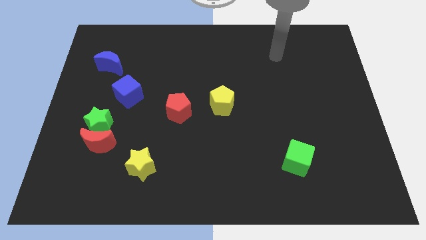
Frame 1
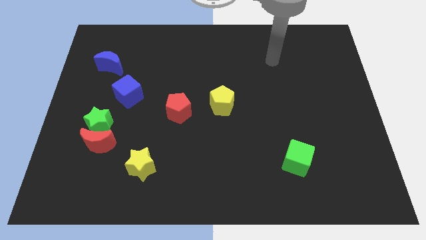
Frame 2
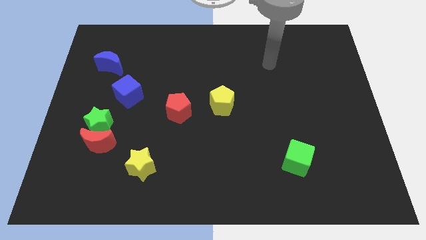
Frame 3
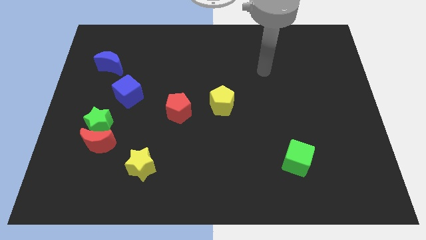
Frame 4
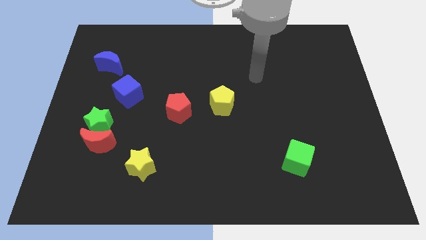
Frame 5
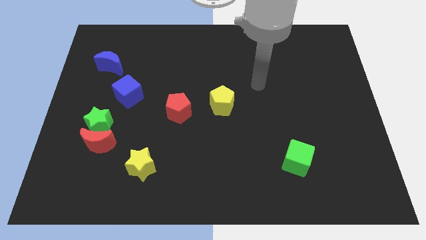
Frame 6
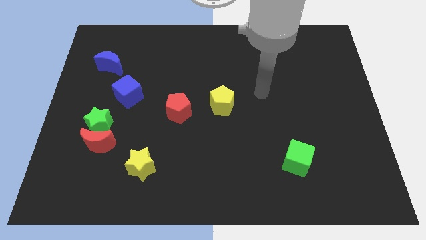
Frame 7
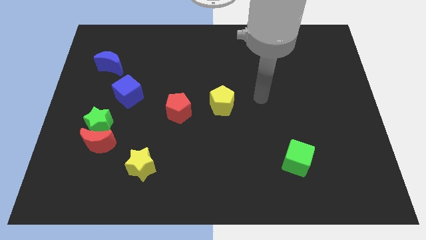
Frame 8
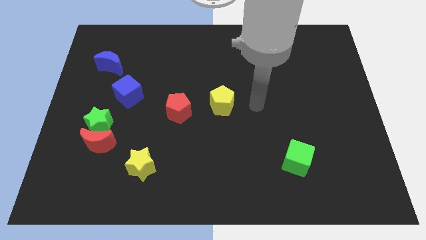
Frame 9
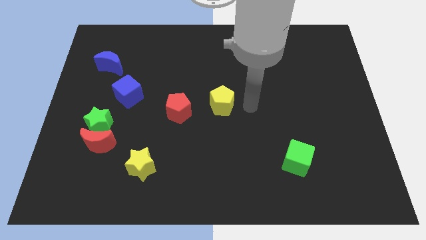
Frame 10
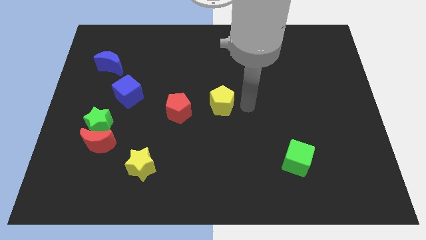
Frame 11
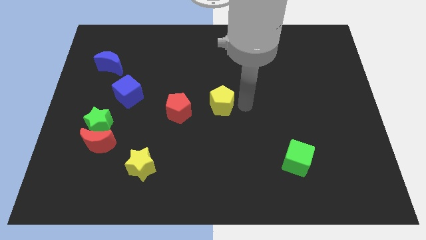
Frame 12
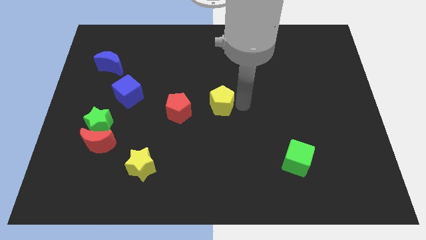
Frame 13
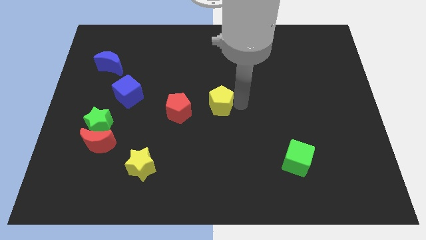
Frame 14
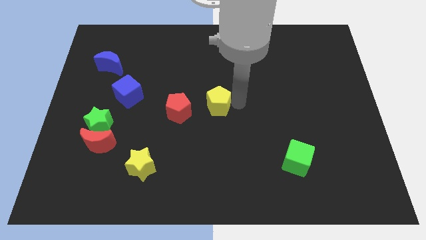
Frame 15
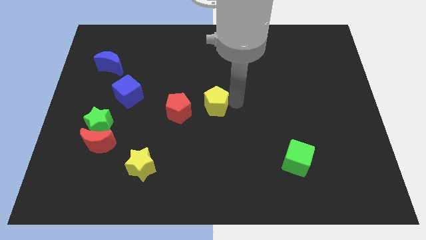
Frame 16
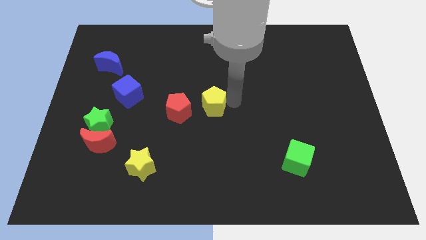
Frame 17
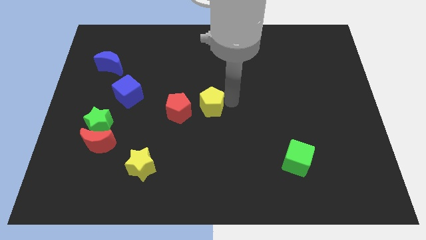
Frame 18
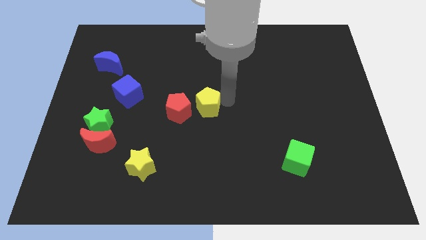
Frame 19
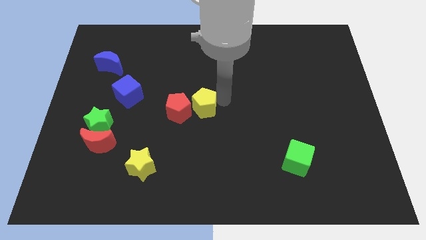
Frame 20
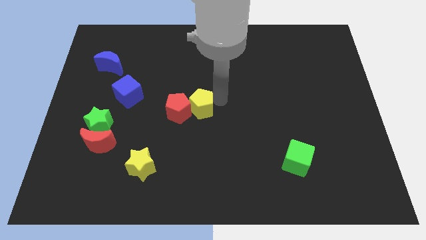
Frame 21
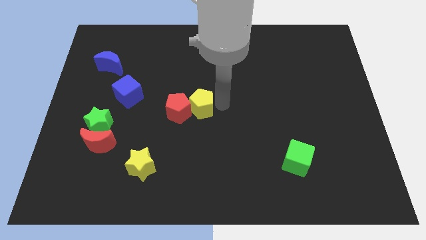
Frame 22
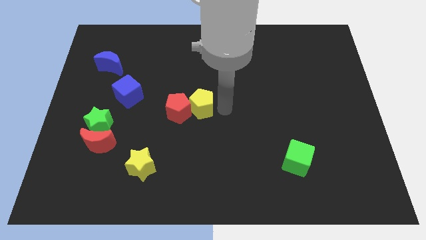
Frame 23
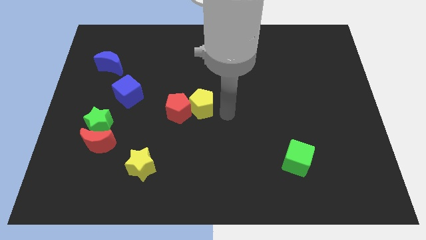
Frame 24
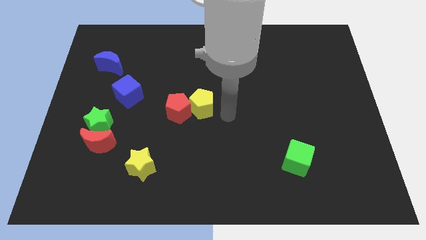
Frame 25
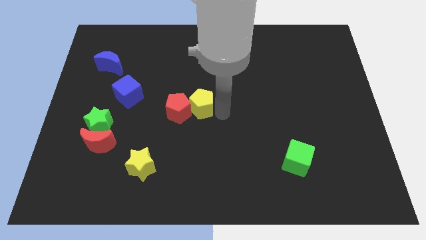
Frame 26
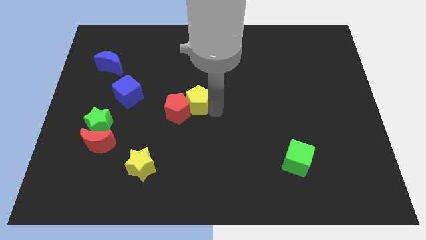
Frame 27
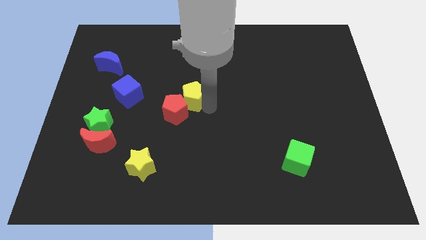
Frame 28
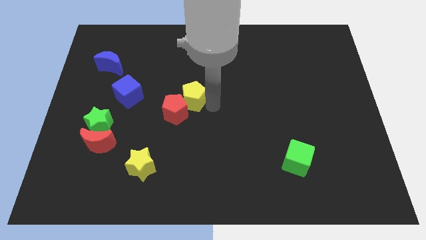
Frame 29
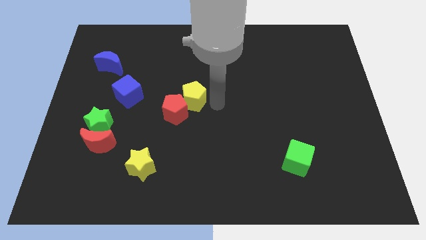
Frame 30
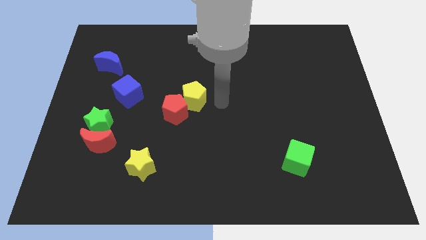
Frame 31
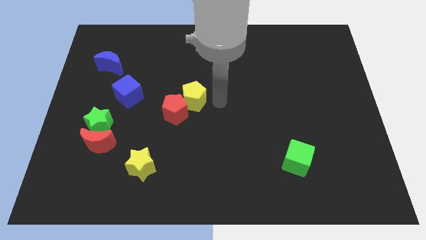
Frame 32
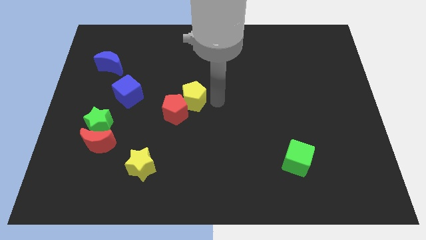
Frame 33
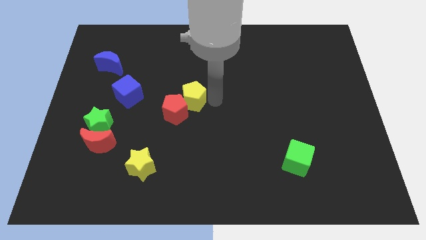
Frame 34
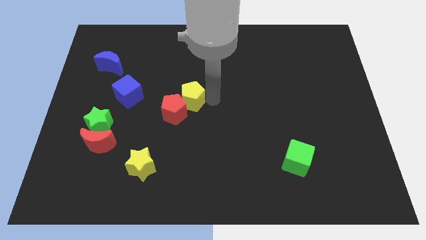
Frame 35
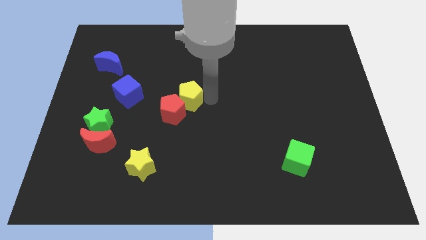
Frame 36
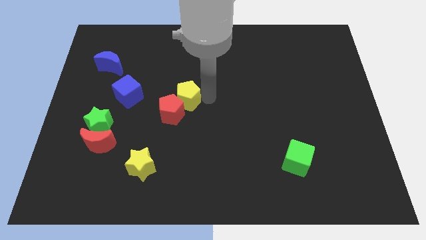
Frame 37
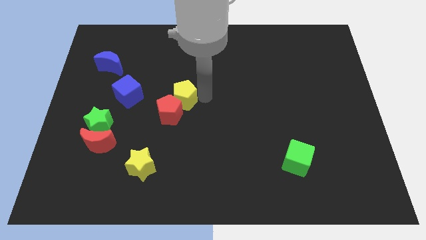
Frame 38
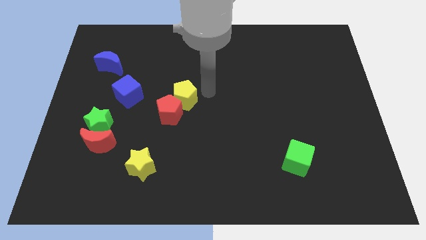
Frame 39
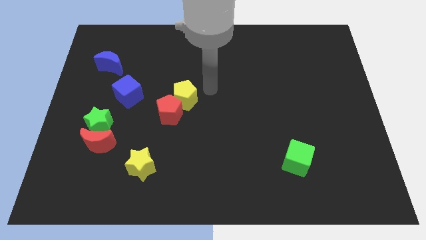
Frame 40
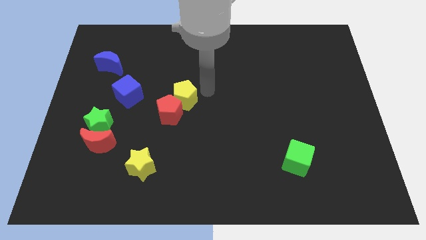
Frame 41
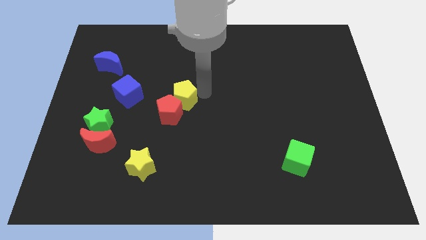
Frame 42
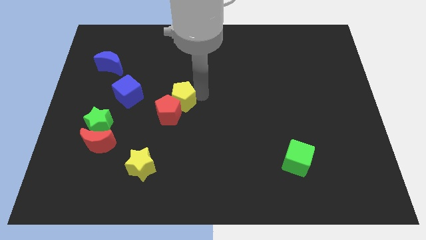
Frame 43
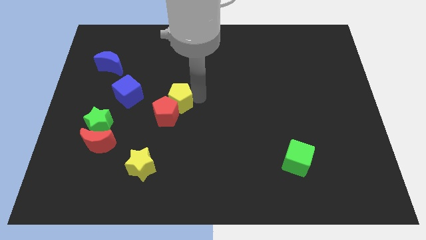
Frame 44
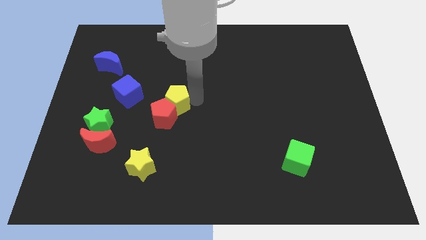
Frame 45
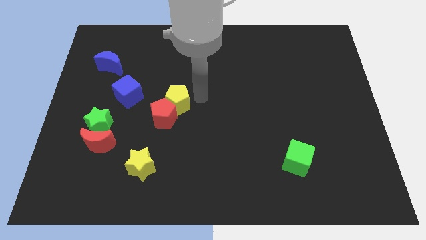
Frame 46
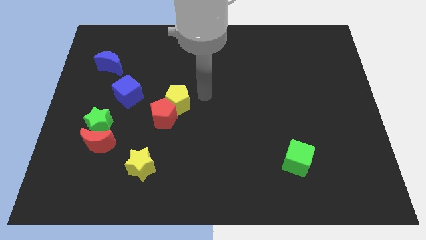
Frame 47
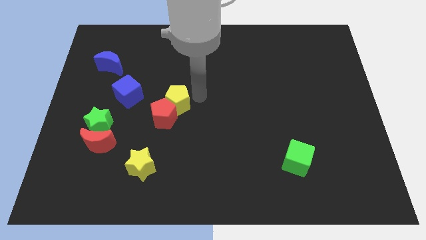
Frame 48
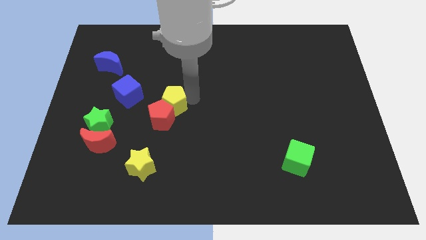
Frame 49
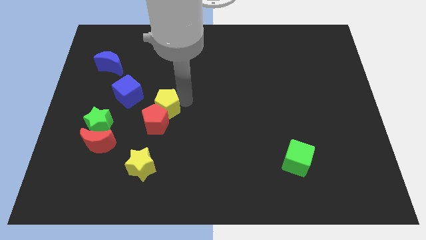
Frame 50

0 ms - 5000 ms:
push the yellow pentagon to the bottom right of the blue cube

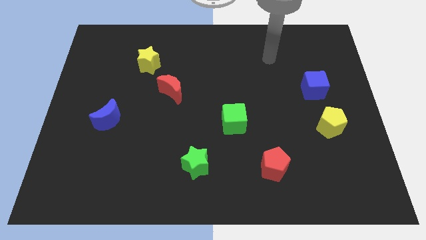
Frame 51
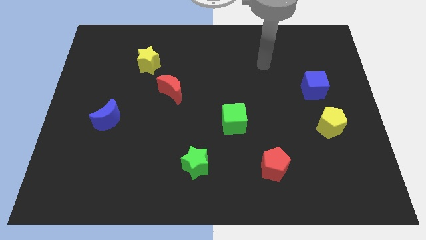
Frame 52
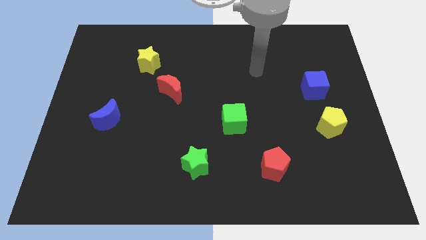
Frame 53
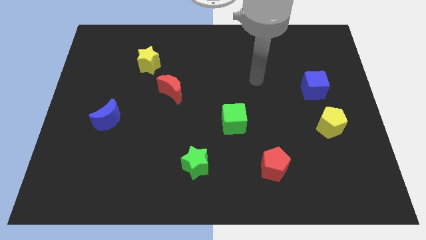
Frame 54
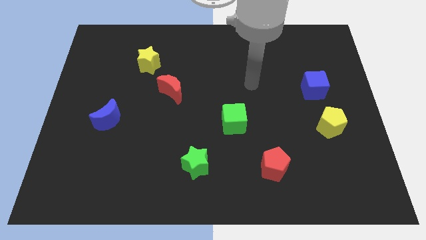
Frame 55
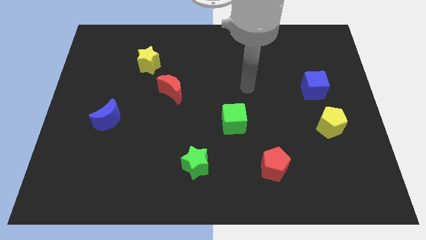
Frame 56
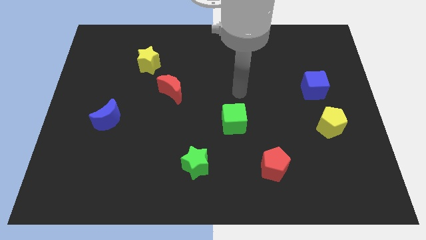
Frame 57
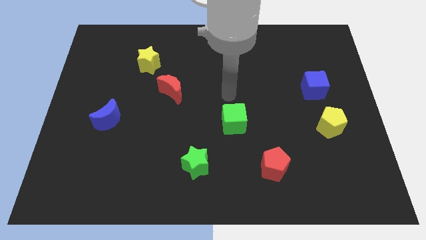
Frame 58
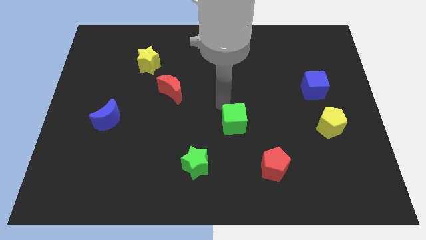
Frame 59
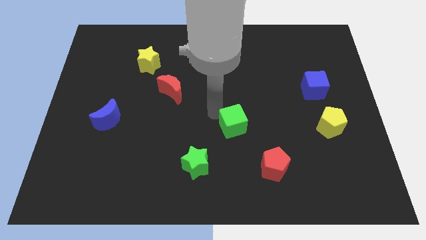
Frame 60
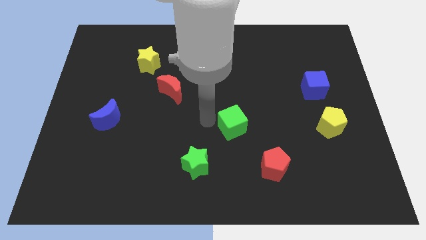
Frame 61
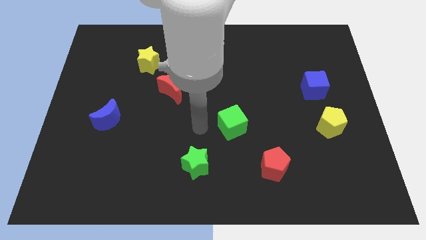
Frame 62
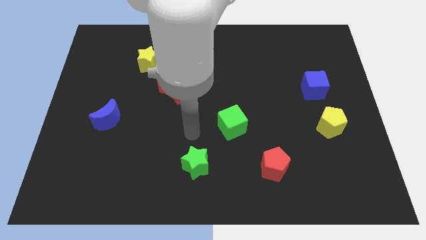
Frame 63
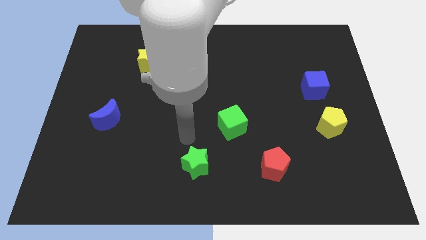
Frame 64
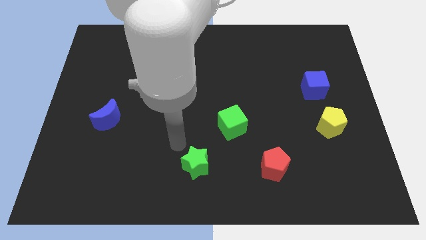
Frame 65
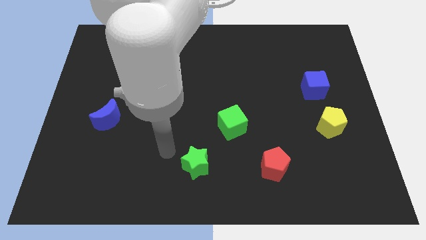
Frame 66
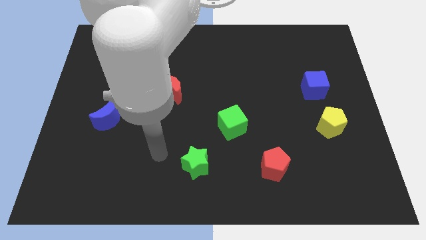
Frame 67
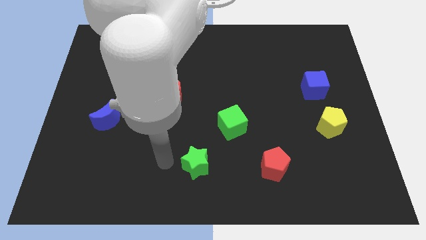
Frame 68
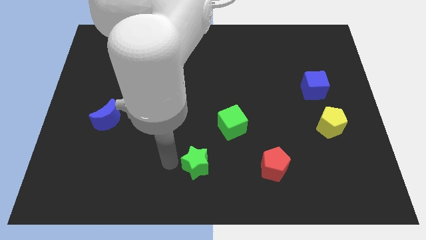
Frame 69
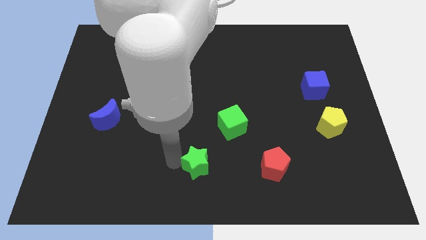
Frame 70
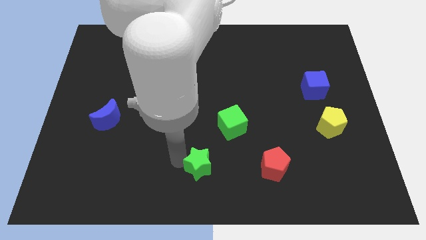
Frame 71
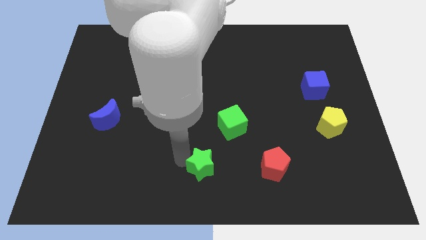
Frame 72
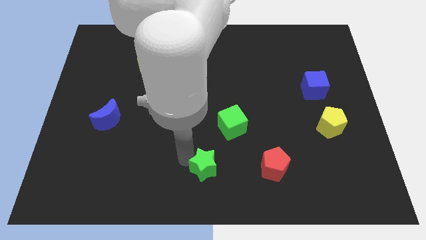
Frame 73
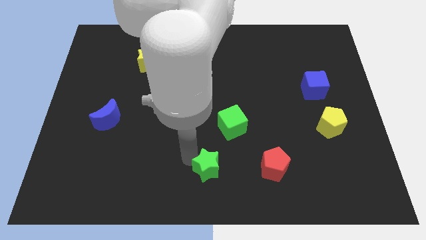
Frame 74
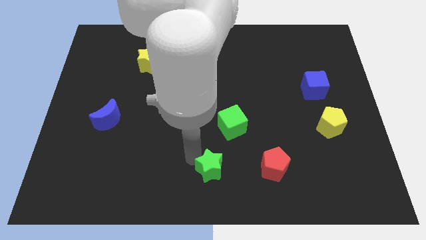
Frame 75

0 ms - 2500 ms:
move the green star to the bottom side of the green cube
